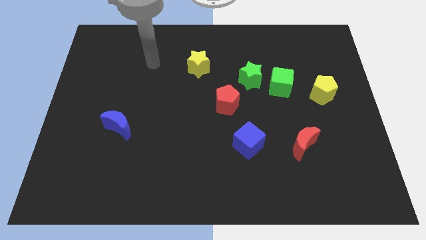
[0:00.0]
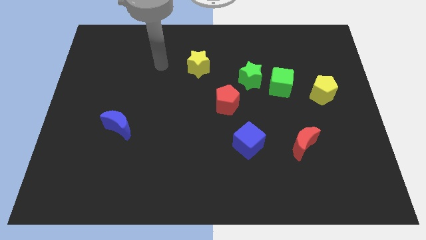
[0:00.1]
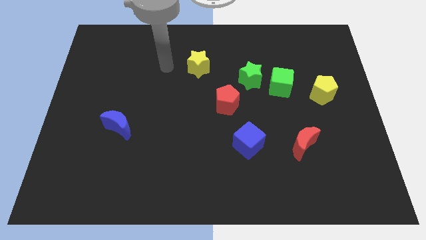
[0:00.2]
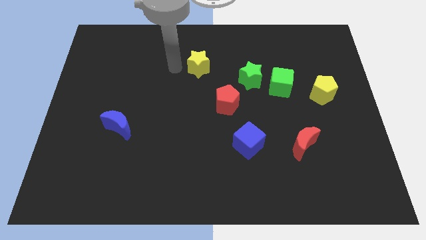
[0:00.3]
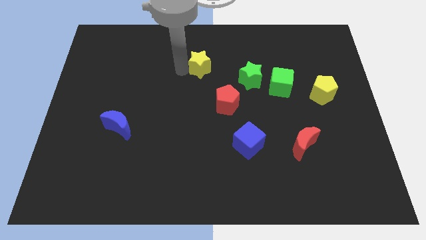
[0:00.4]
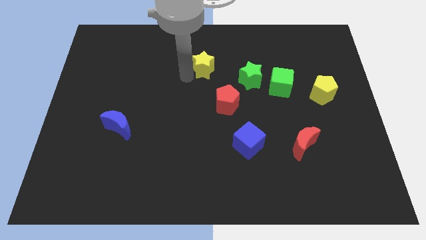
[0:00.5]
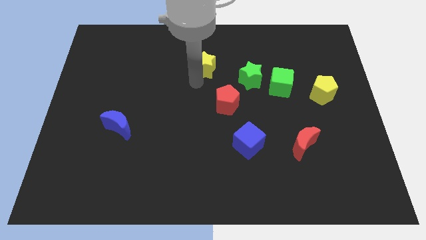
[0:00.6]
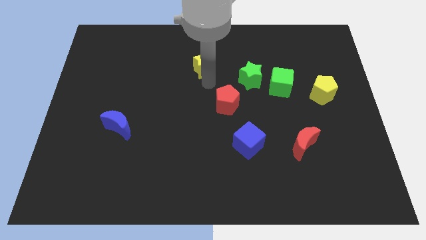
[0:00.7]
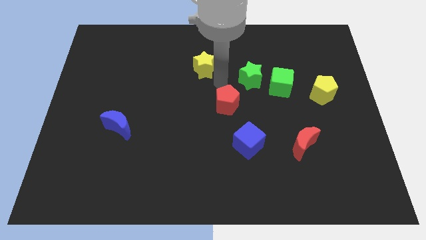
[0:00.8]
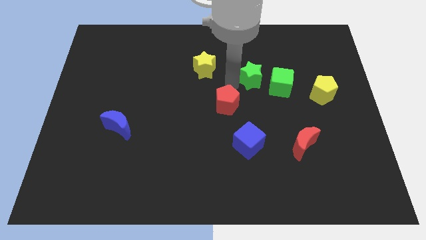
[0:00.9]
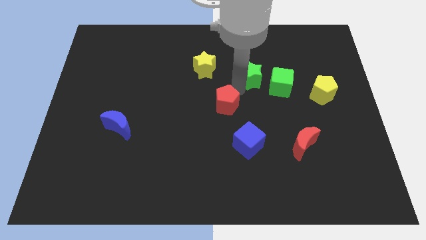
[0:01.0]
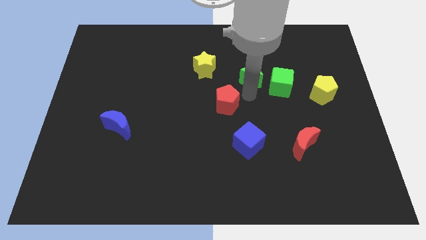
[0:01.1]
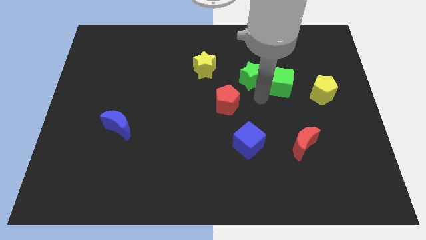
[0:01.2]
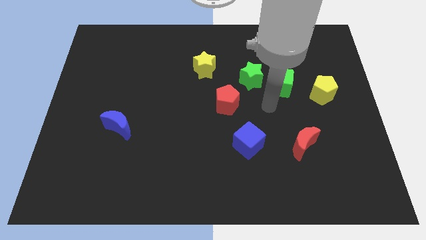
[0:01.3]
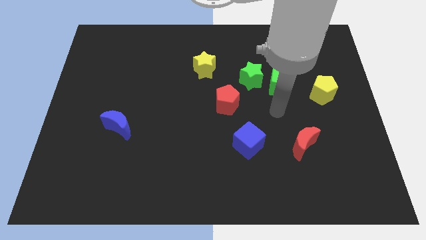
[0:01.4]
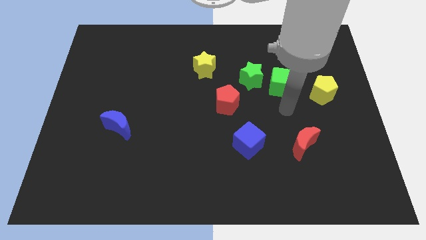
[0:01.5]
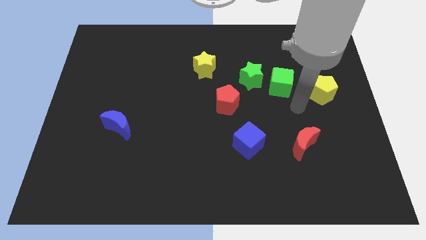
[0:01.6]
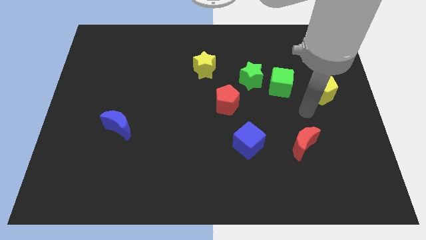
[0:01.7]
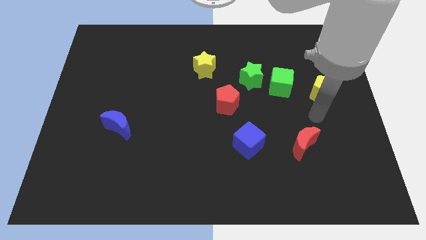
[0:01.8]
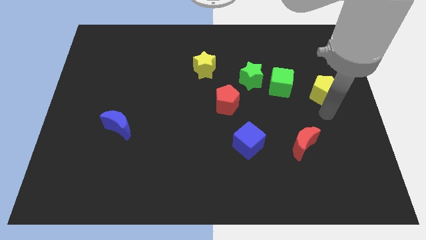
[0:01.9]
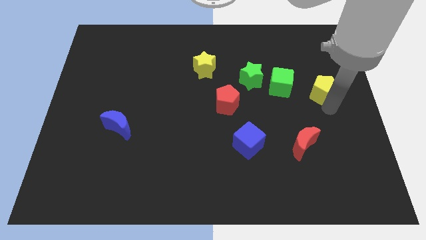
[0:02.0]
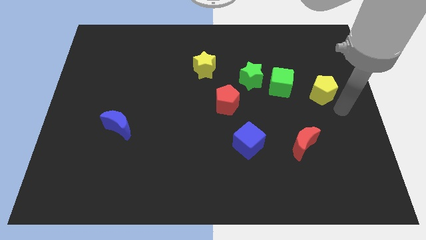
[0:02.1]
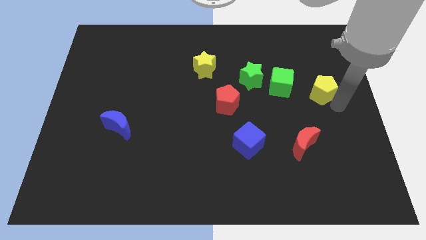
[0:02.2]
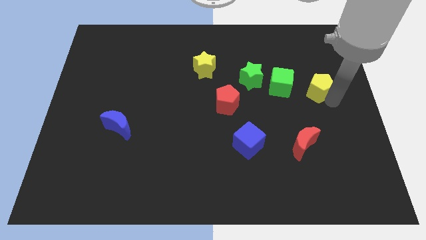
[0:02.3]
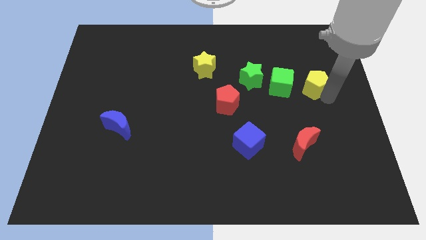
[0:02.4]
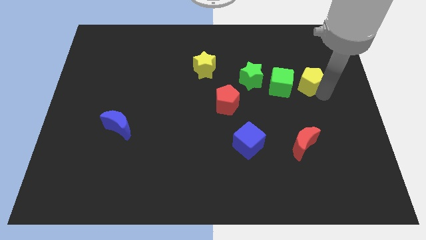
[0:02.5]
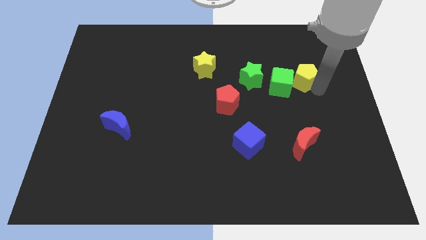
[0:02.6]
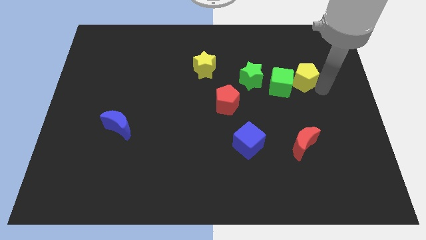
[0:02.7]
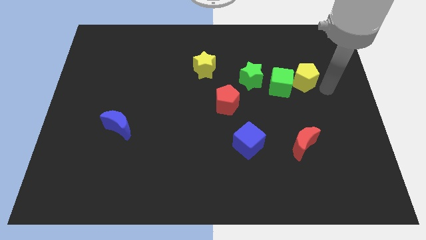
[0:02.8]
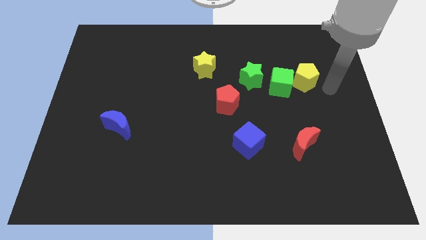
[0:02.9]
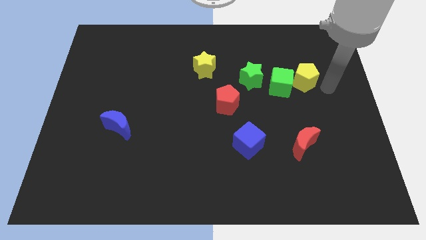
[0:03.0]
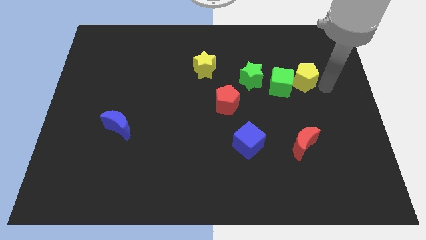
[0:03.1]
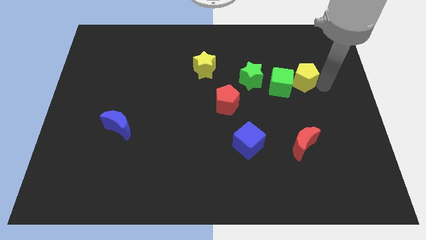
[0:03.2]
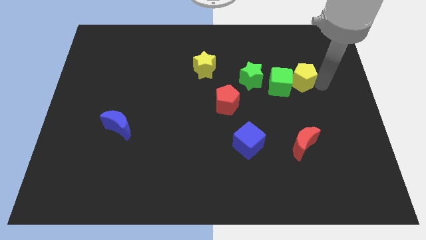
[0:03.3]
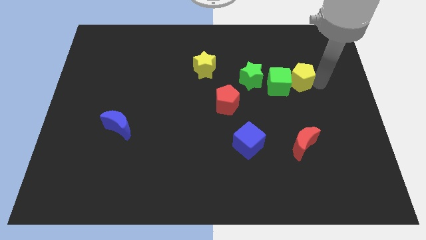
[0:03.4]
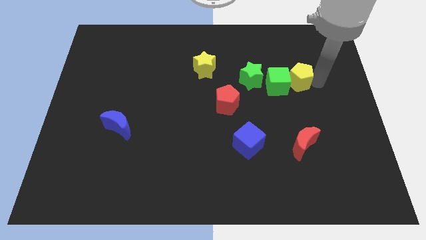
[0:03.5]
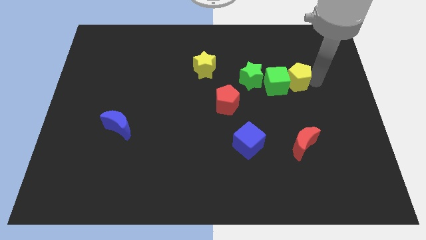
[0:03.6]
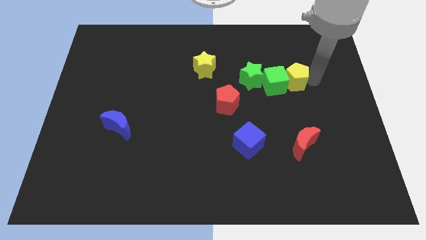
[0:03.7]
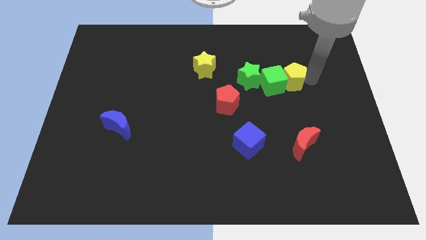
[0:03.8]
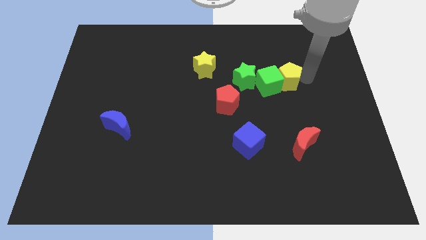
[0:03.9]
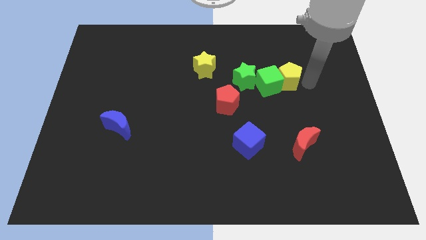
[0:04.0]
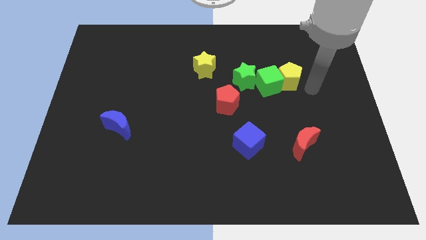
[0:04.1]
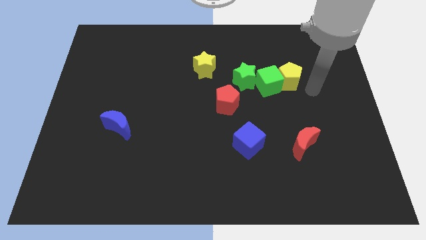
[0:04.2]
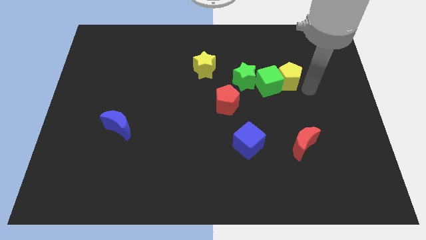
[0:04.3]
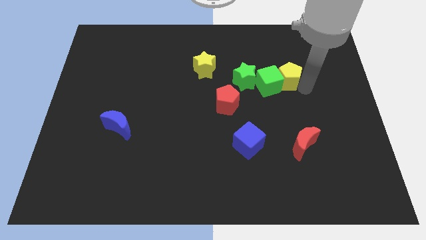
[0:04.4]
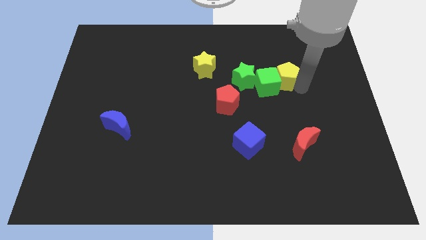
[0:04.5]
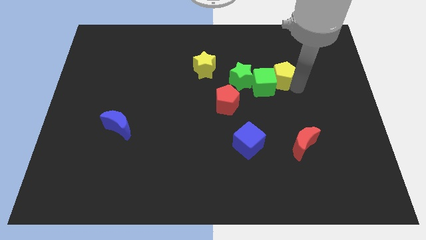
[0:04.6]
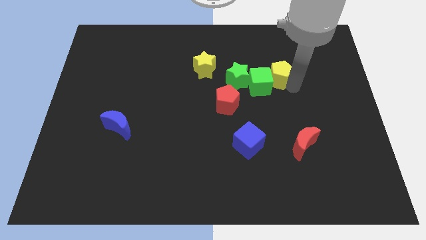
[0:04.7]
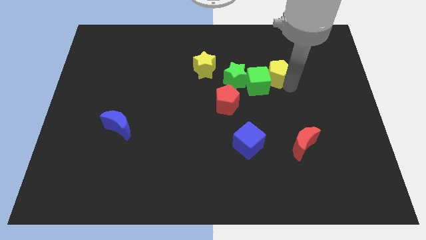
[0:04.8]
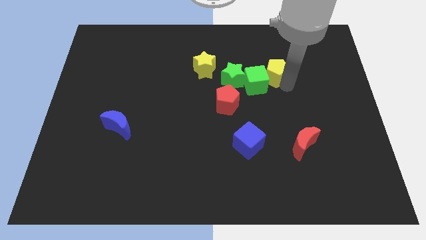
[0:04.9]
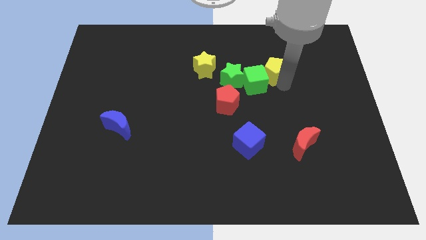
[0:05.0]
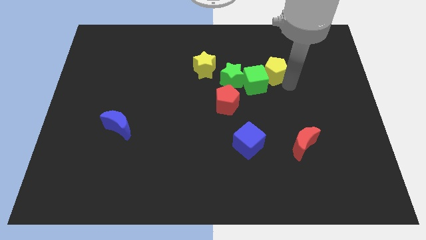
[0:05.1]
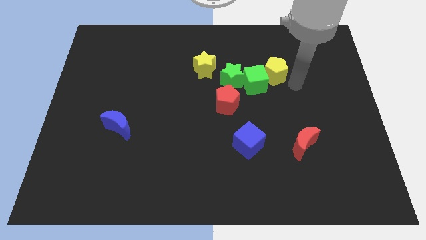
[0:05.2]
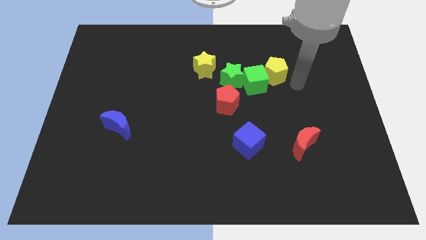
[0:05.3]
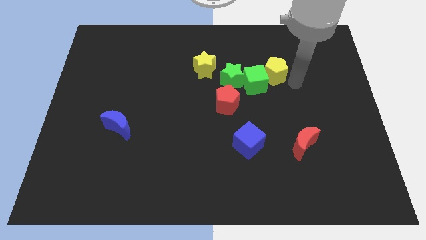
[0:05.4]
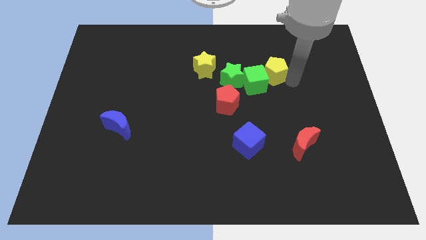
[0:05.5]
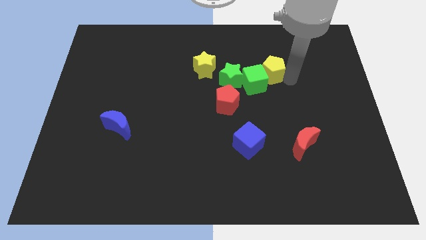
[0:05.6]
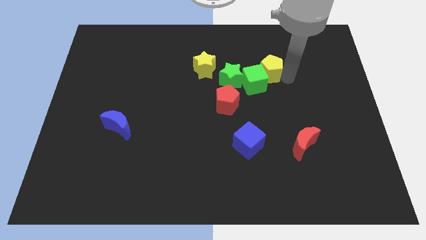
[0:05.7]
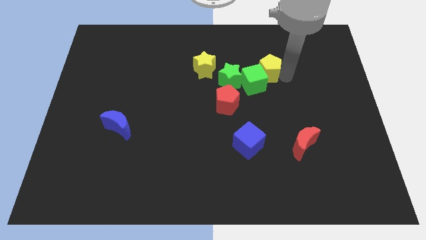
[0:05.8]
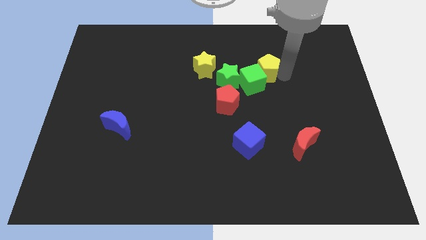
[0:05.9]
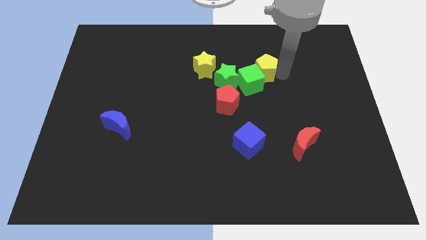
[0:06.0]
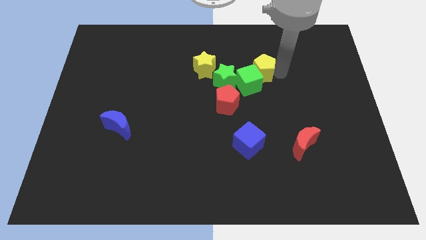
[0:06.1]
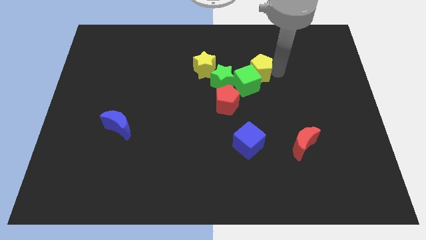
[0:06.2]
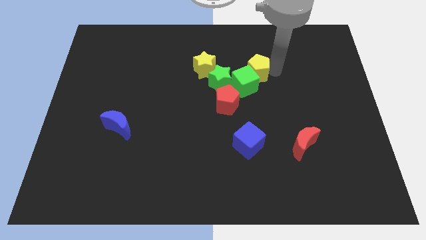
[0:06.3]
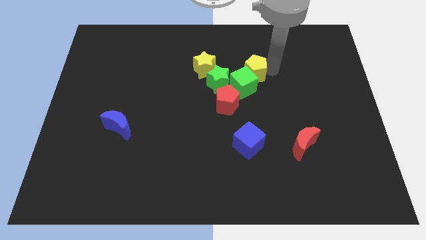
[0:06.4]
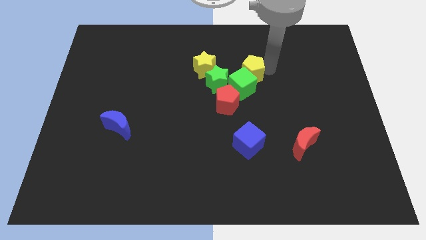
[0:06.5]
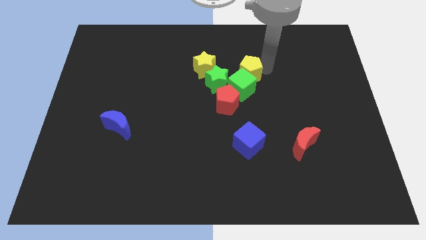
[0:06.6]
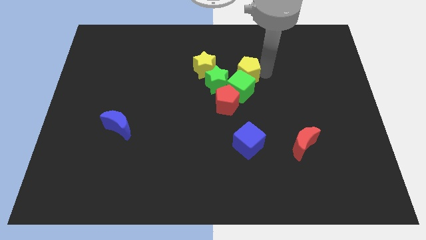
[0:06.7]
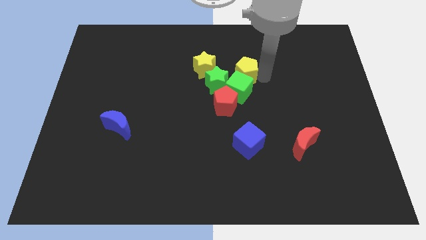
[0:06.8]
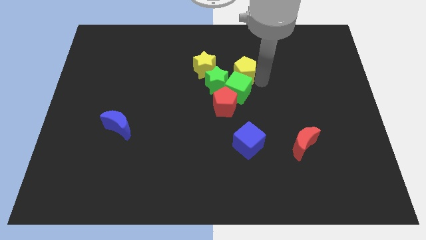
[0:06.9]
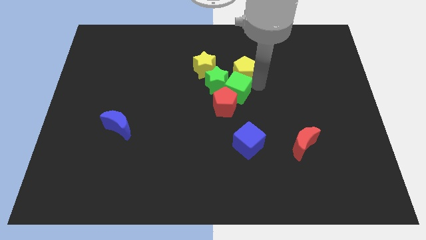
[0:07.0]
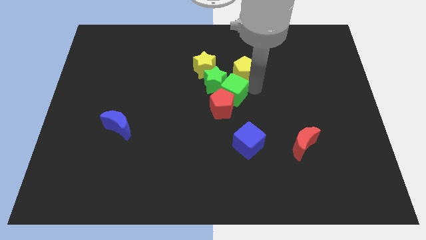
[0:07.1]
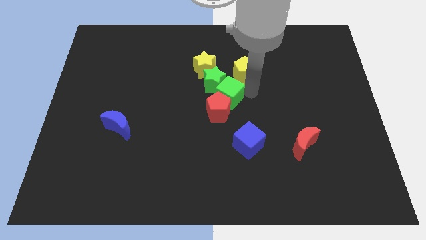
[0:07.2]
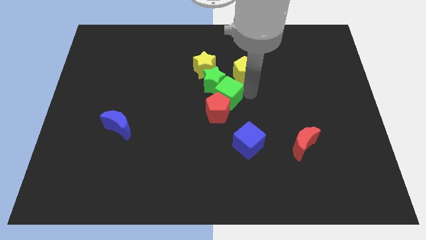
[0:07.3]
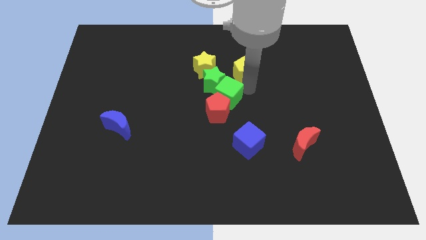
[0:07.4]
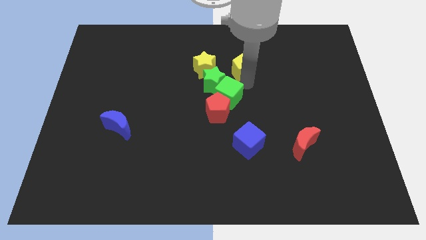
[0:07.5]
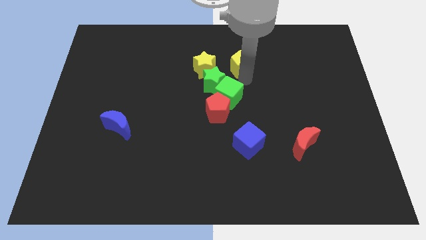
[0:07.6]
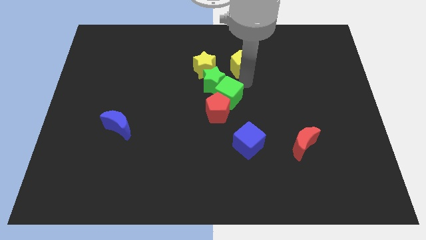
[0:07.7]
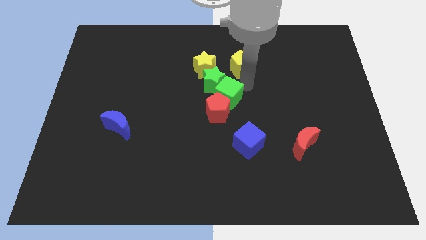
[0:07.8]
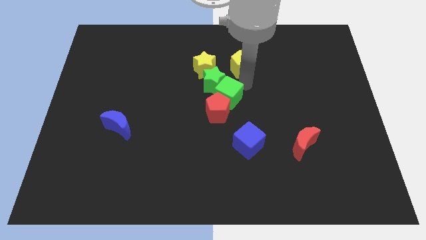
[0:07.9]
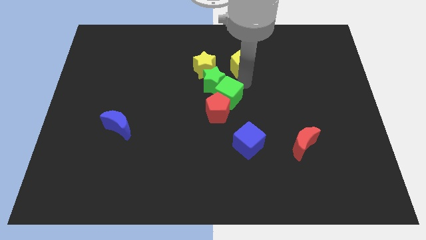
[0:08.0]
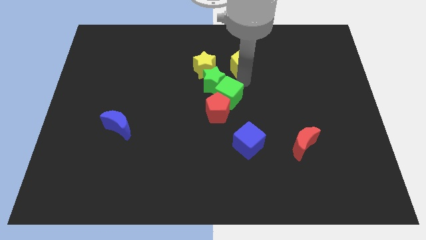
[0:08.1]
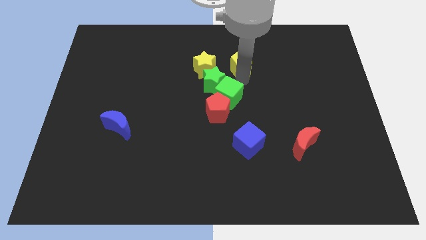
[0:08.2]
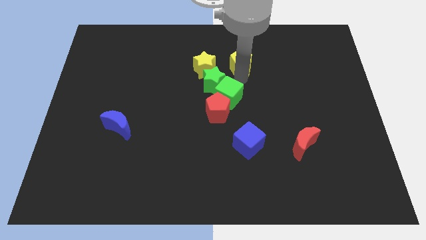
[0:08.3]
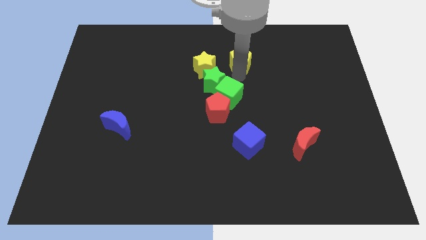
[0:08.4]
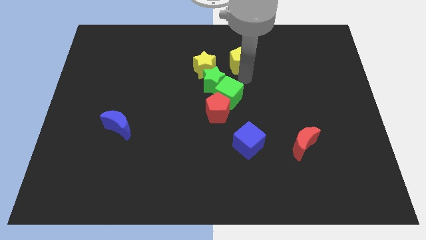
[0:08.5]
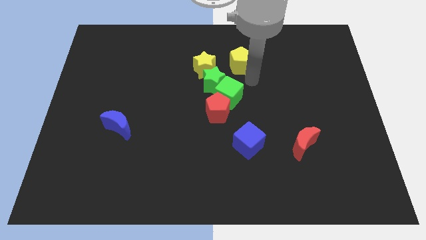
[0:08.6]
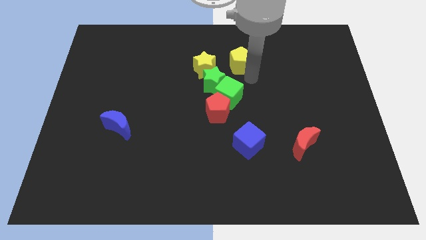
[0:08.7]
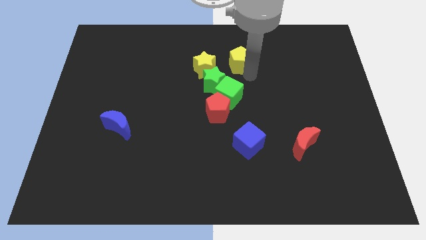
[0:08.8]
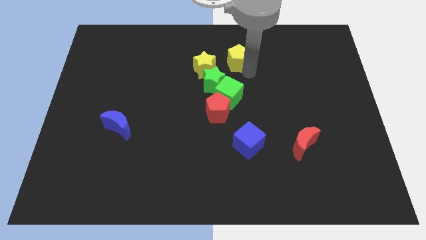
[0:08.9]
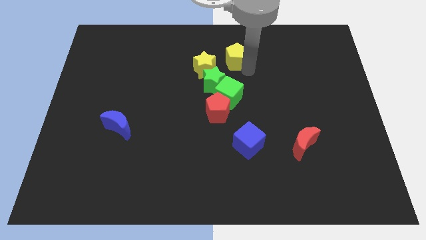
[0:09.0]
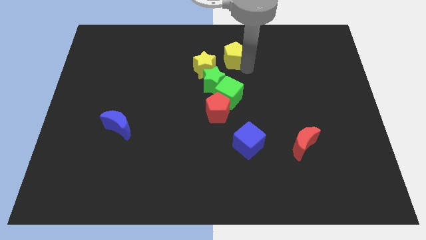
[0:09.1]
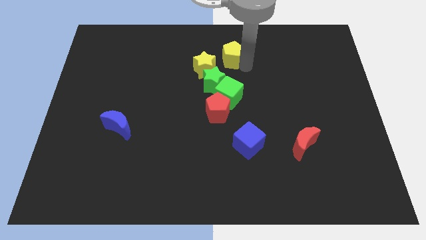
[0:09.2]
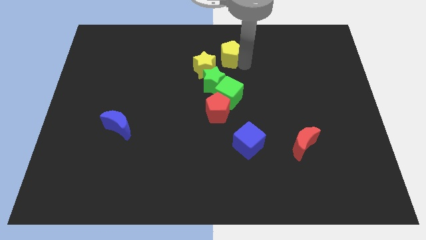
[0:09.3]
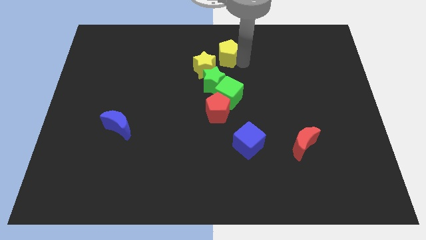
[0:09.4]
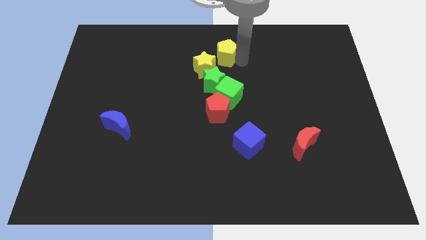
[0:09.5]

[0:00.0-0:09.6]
push the yellow pentagon to the top side
